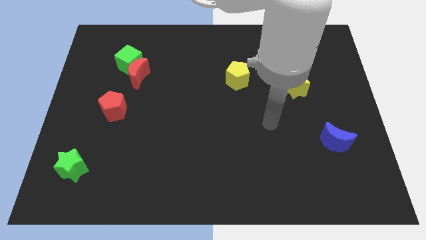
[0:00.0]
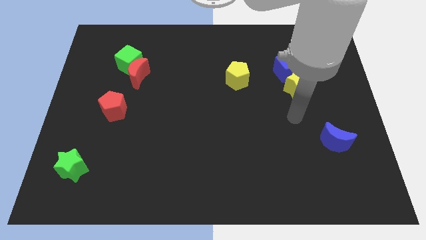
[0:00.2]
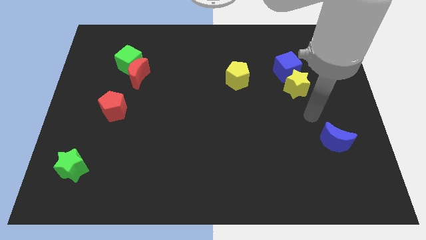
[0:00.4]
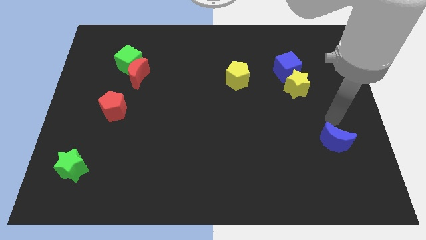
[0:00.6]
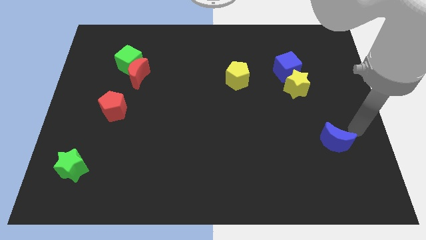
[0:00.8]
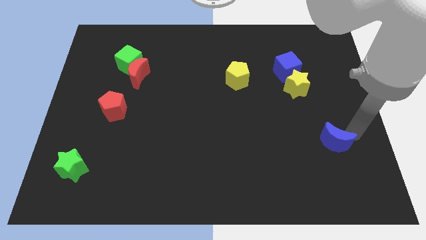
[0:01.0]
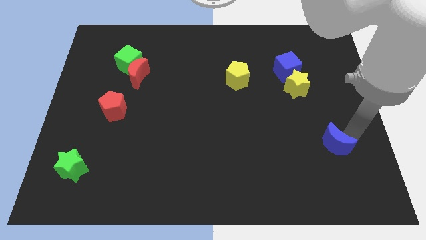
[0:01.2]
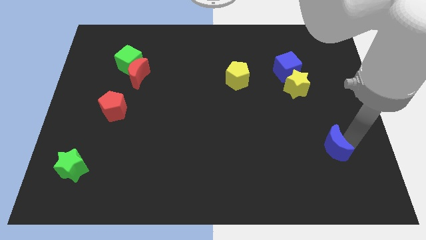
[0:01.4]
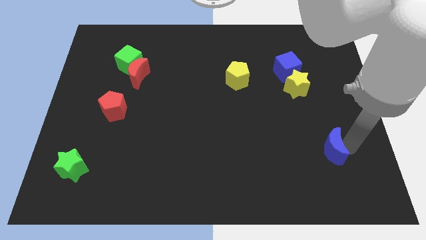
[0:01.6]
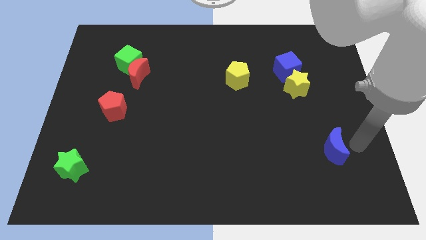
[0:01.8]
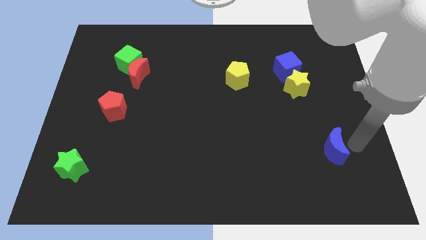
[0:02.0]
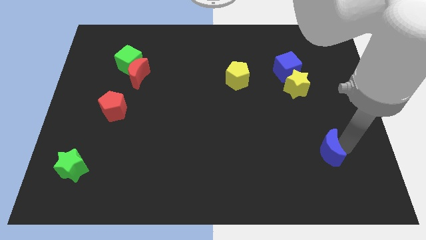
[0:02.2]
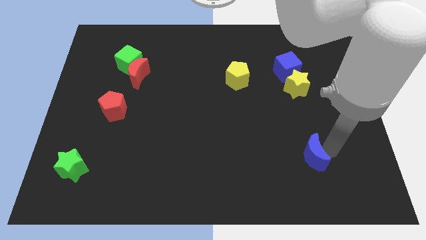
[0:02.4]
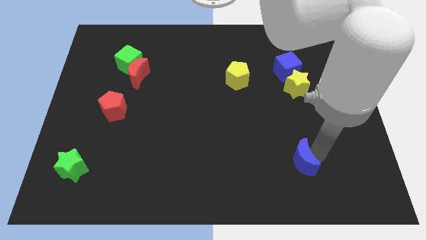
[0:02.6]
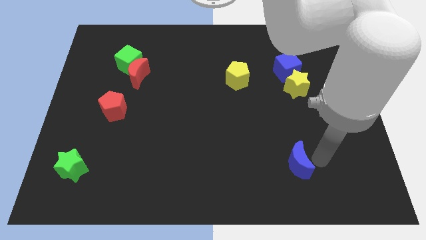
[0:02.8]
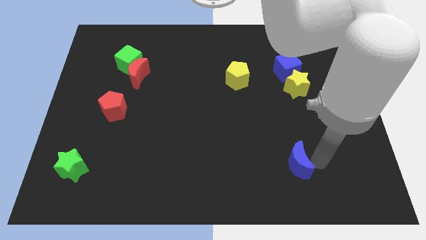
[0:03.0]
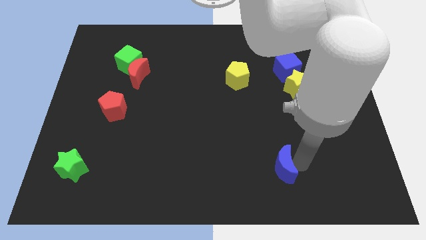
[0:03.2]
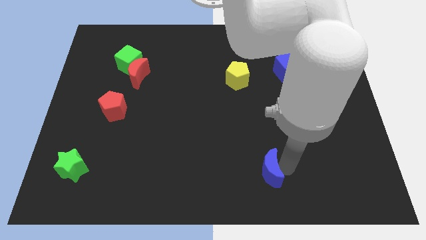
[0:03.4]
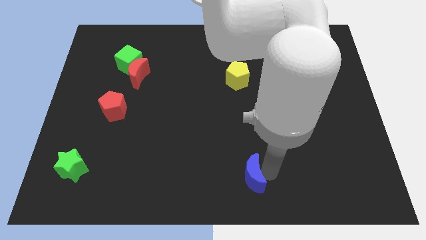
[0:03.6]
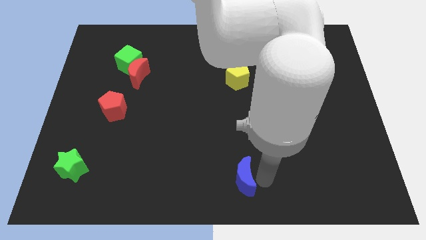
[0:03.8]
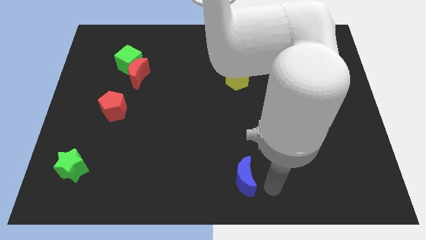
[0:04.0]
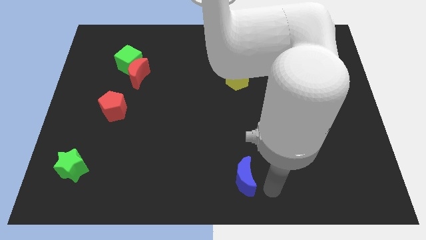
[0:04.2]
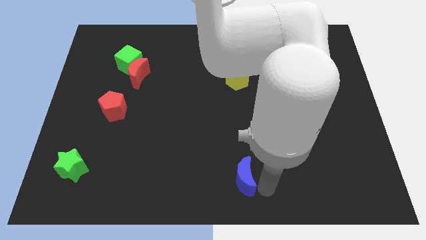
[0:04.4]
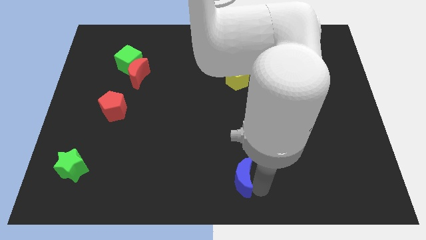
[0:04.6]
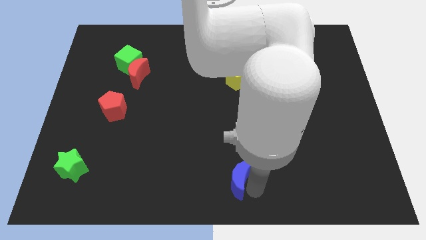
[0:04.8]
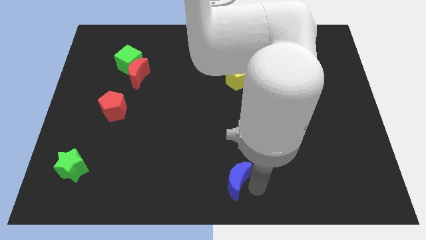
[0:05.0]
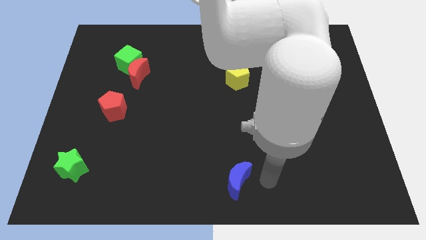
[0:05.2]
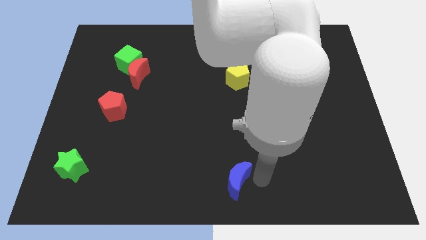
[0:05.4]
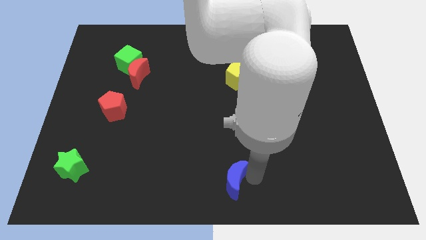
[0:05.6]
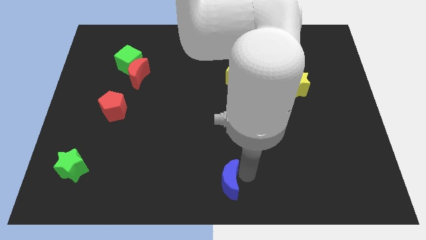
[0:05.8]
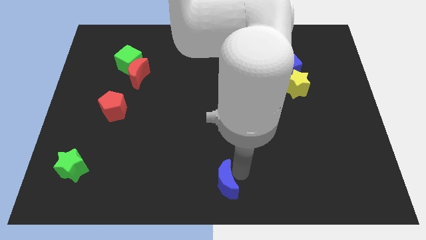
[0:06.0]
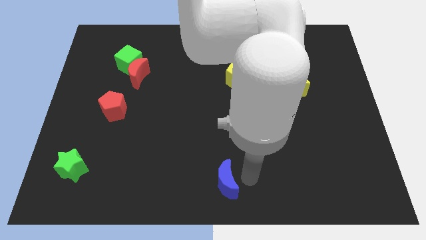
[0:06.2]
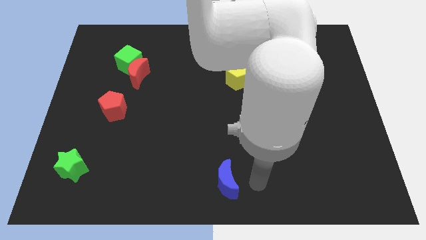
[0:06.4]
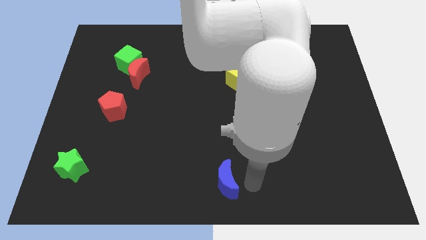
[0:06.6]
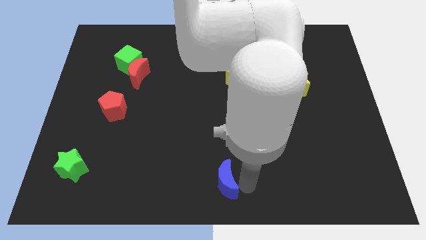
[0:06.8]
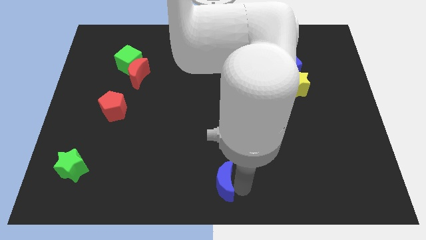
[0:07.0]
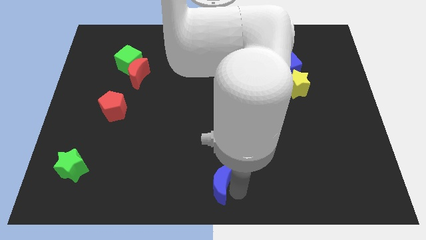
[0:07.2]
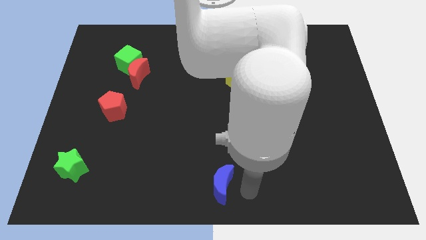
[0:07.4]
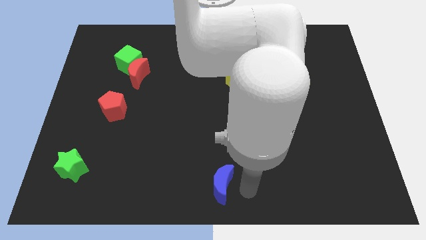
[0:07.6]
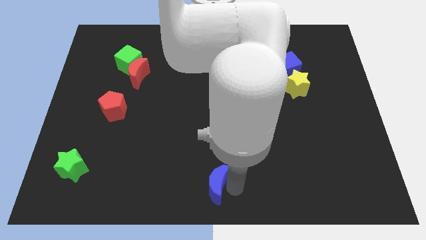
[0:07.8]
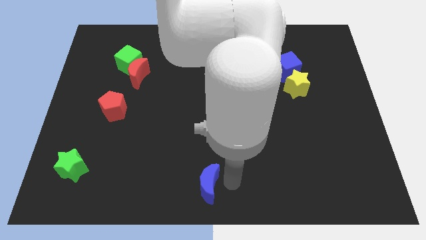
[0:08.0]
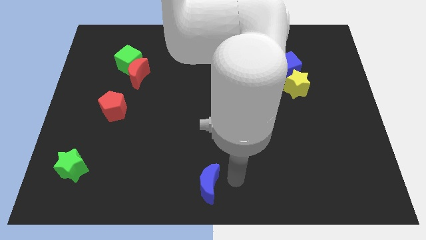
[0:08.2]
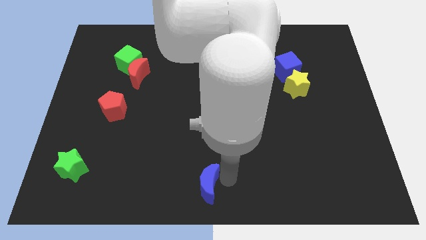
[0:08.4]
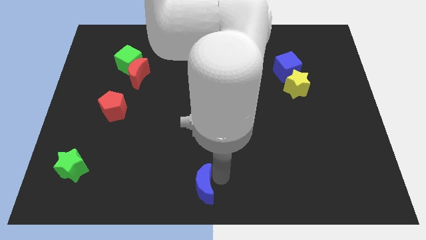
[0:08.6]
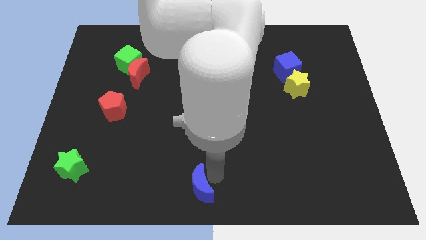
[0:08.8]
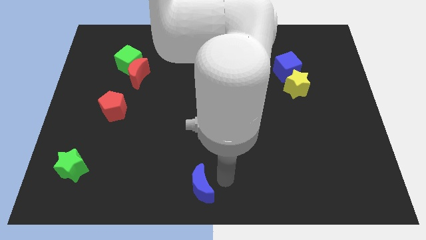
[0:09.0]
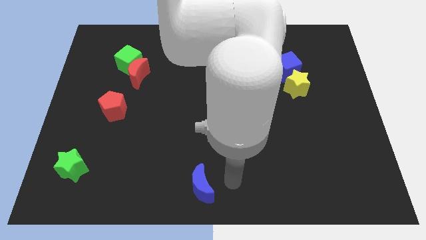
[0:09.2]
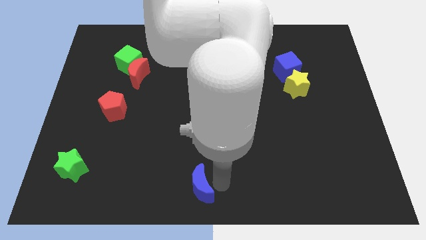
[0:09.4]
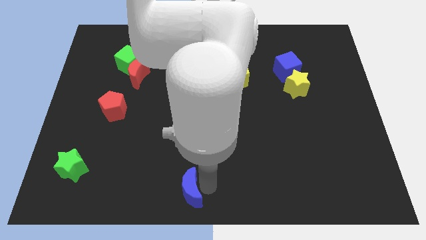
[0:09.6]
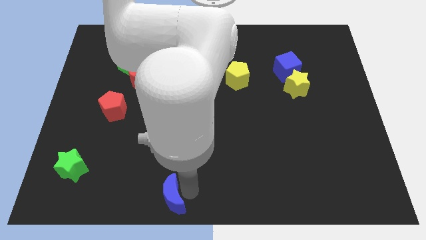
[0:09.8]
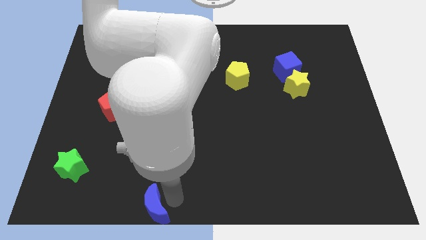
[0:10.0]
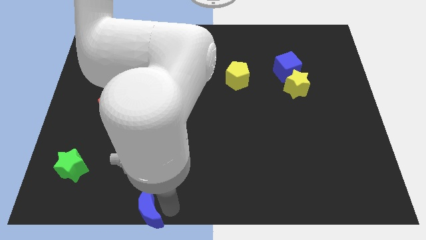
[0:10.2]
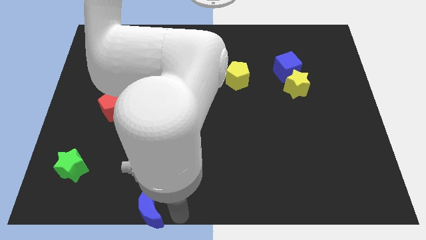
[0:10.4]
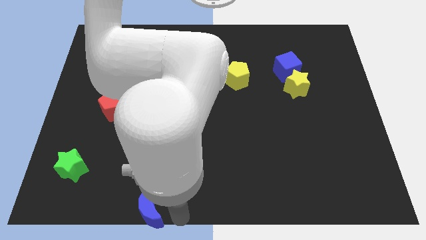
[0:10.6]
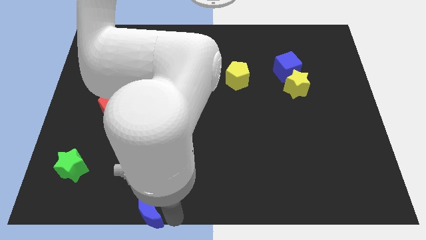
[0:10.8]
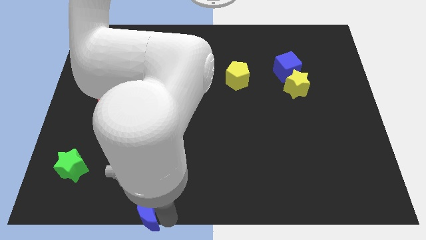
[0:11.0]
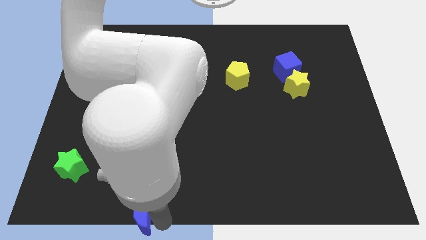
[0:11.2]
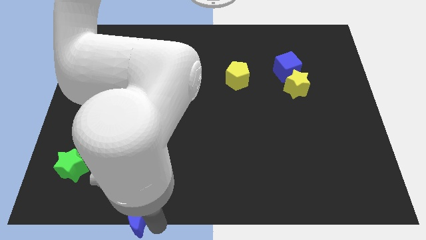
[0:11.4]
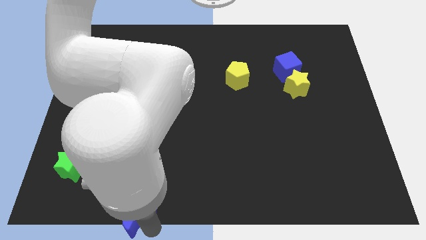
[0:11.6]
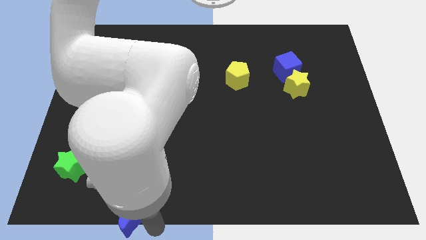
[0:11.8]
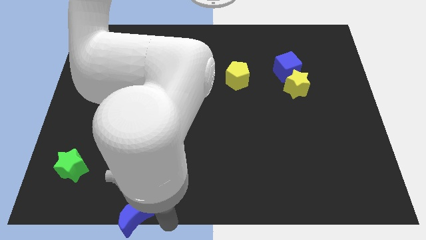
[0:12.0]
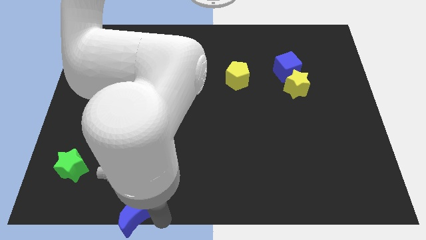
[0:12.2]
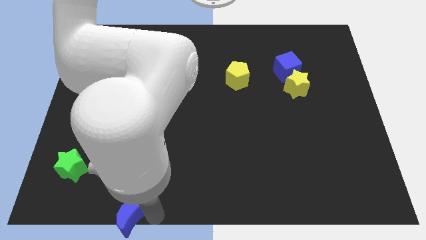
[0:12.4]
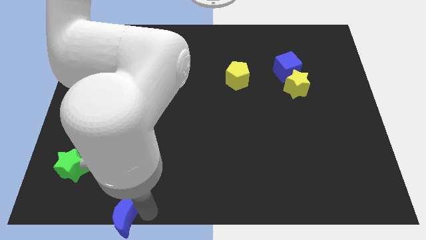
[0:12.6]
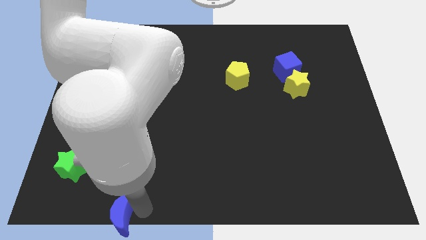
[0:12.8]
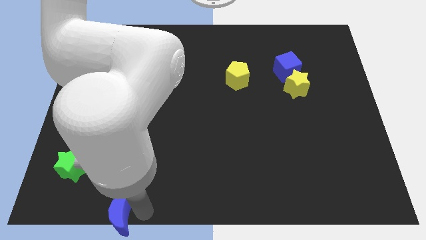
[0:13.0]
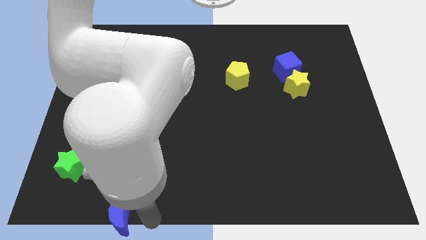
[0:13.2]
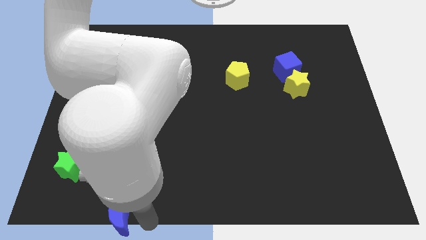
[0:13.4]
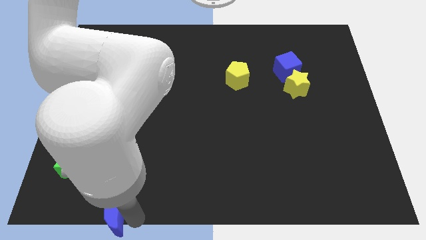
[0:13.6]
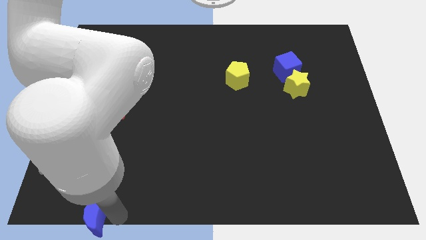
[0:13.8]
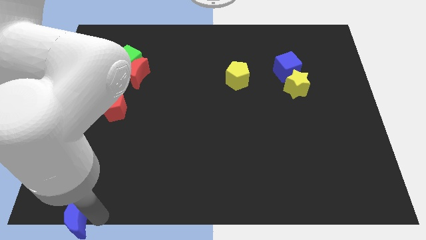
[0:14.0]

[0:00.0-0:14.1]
push the blue moon to the bottom left
